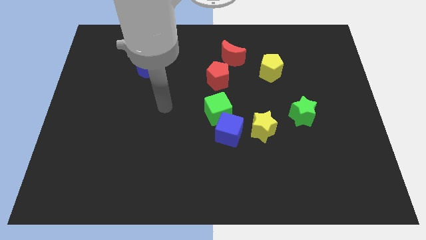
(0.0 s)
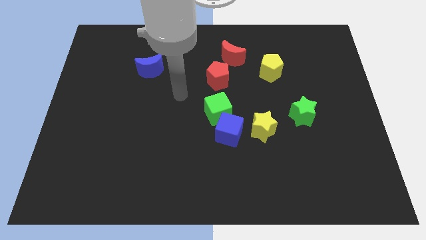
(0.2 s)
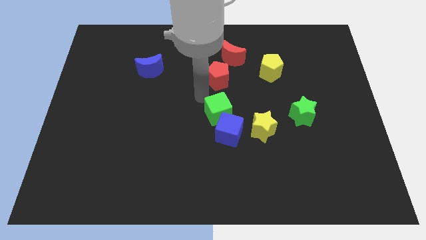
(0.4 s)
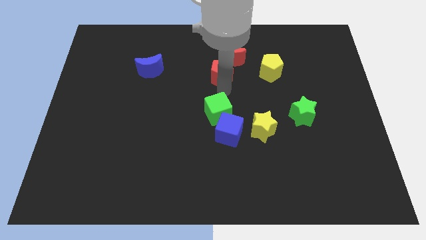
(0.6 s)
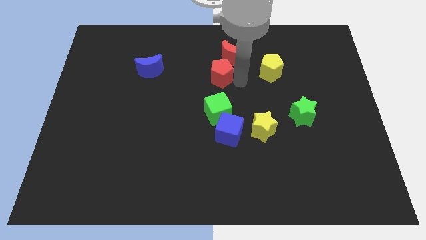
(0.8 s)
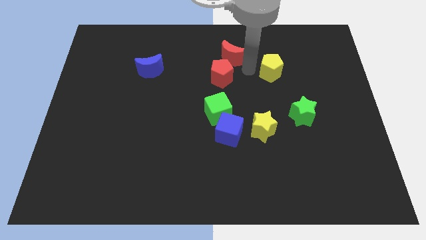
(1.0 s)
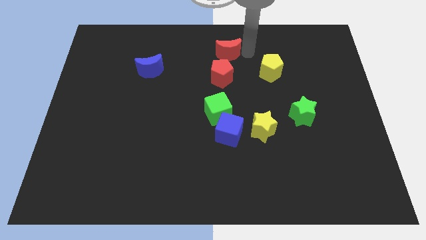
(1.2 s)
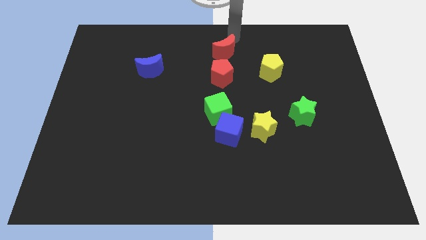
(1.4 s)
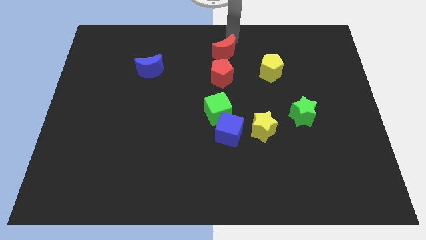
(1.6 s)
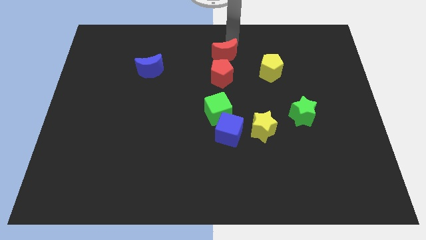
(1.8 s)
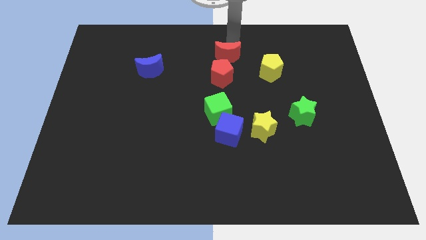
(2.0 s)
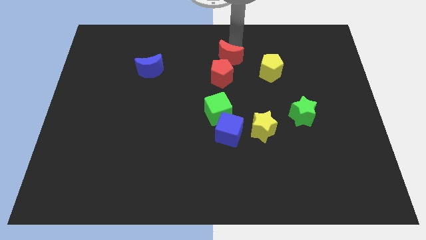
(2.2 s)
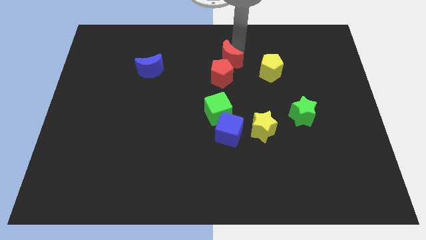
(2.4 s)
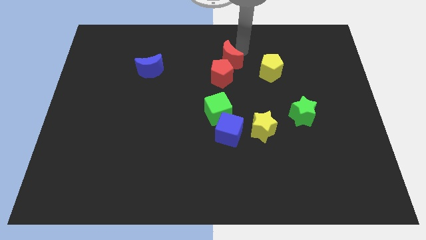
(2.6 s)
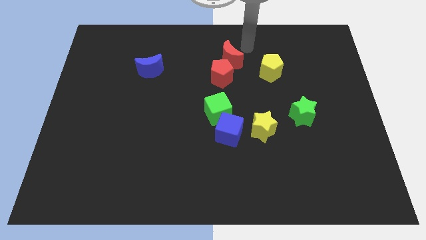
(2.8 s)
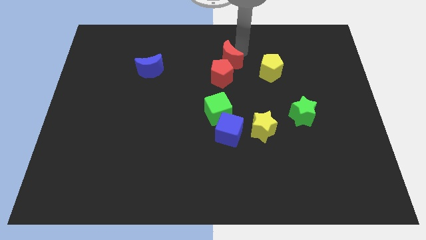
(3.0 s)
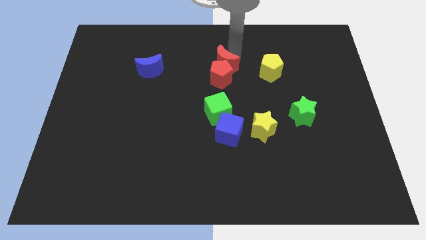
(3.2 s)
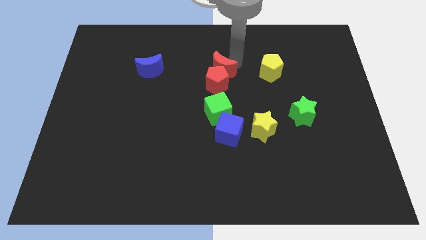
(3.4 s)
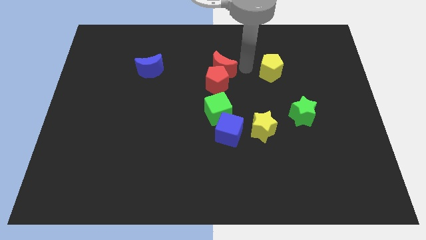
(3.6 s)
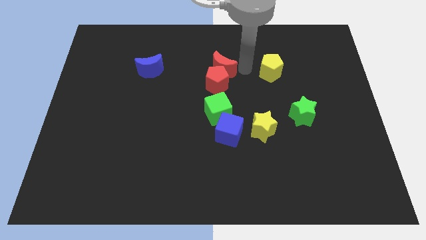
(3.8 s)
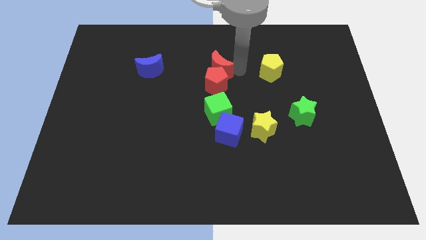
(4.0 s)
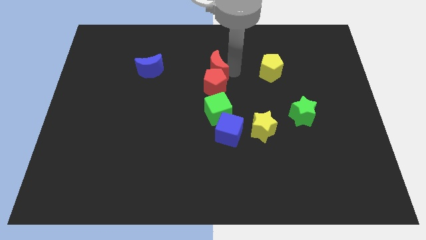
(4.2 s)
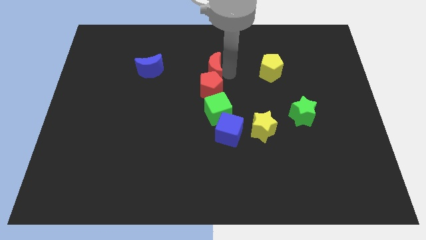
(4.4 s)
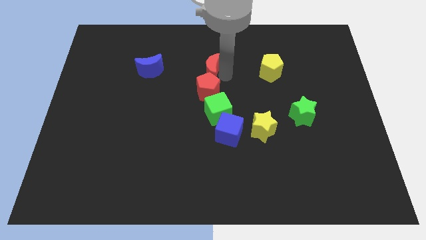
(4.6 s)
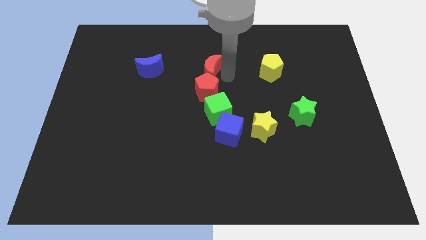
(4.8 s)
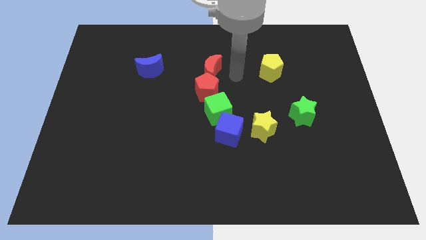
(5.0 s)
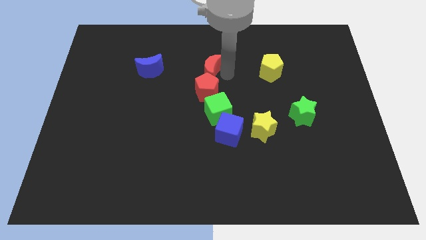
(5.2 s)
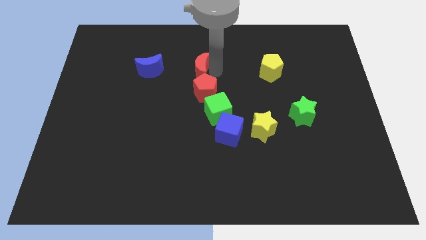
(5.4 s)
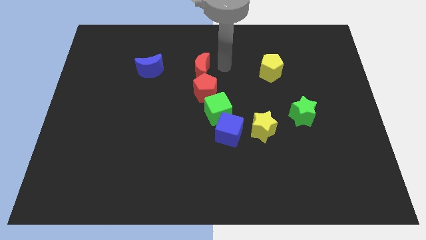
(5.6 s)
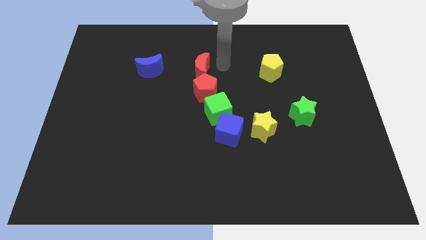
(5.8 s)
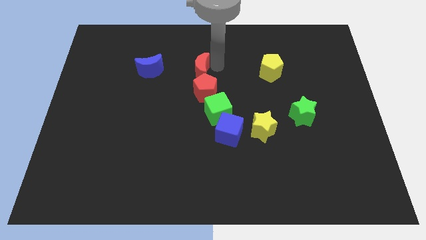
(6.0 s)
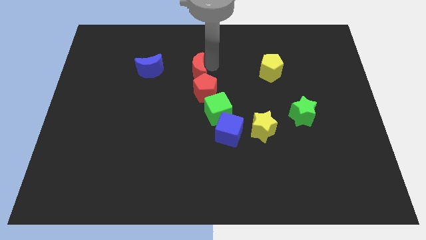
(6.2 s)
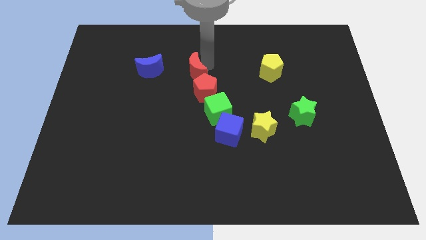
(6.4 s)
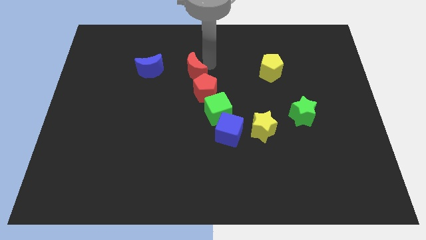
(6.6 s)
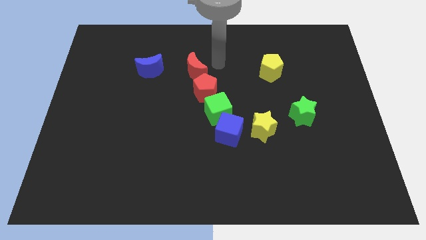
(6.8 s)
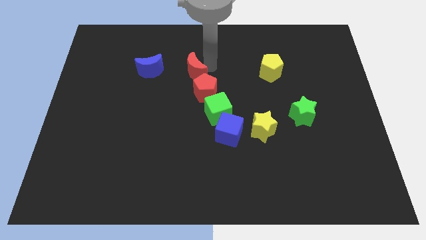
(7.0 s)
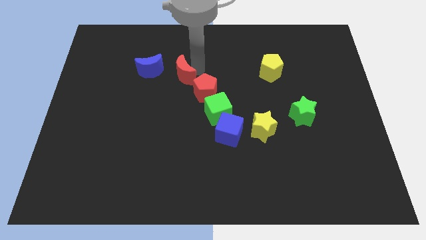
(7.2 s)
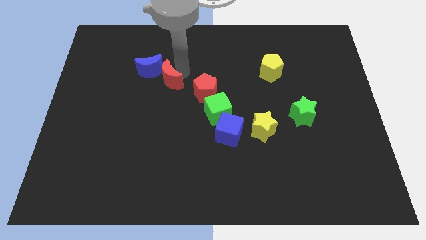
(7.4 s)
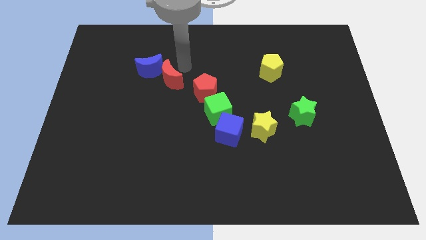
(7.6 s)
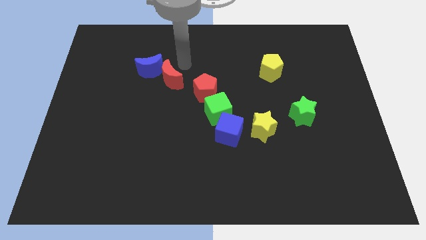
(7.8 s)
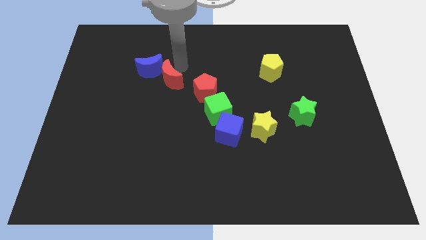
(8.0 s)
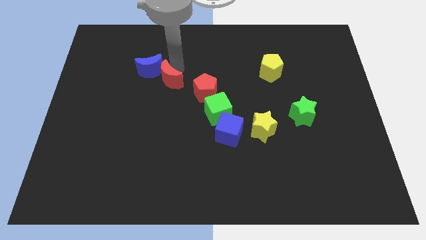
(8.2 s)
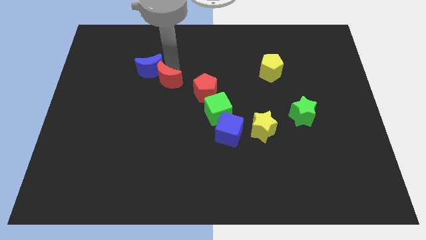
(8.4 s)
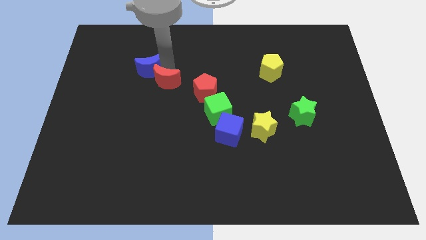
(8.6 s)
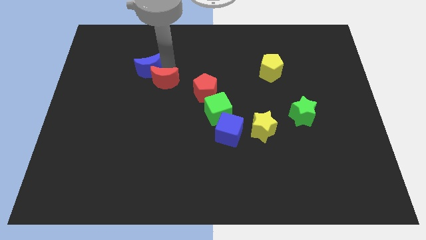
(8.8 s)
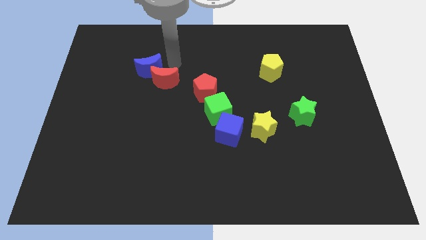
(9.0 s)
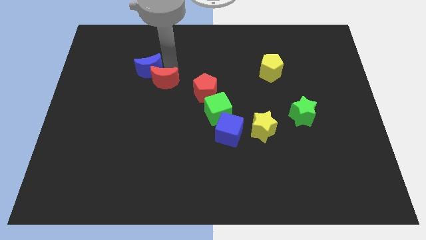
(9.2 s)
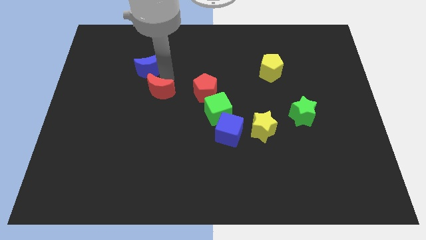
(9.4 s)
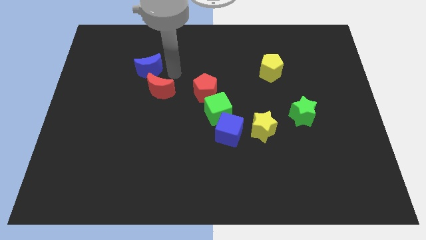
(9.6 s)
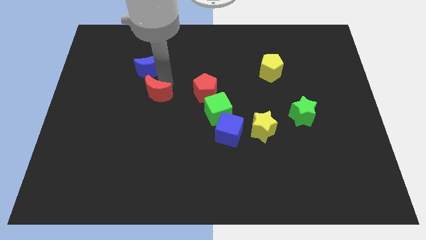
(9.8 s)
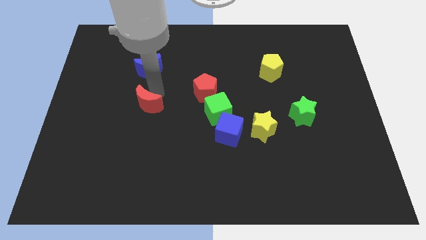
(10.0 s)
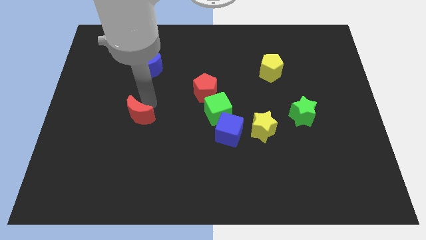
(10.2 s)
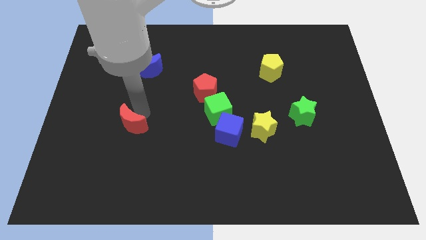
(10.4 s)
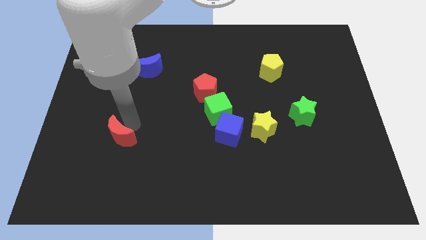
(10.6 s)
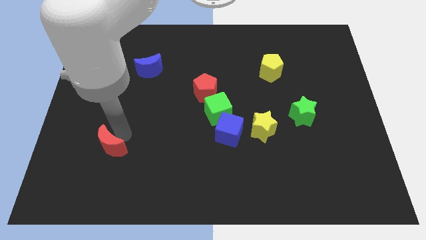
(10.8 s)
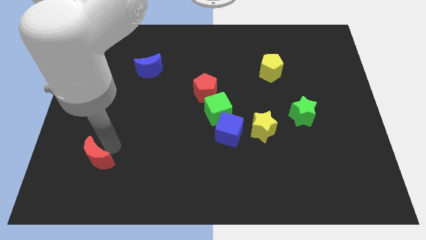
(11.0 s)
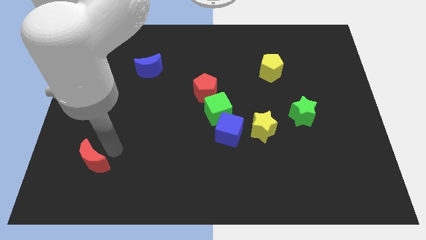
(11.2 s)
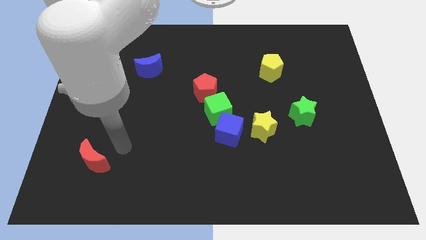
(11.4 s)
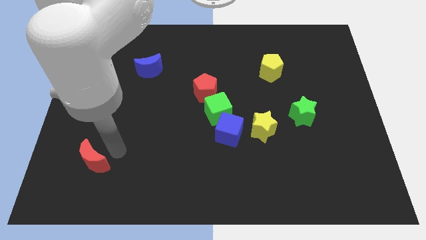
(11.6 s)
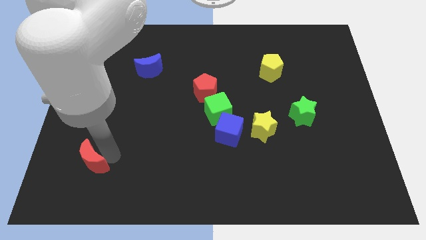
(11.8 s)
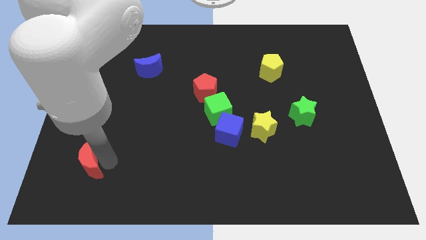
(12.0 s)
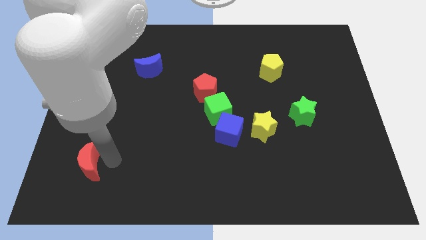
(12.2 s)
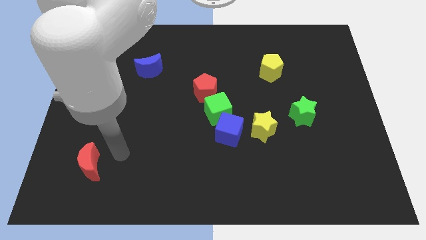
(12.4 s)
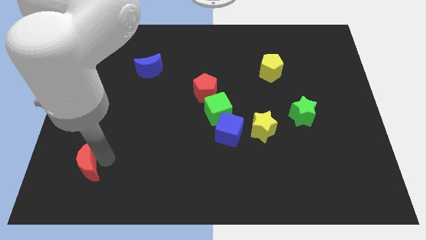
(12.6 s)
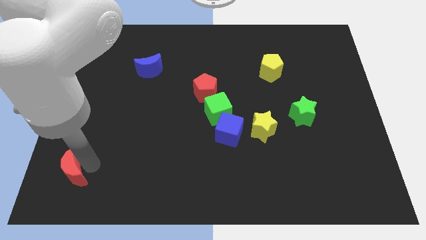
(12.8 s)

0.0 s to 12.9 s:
push the red moon to the bottom left of the board

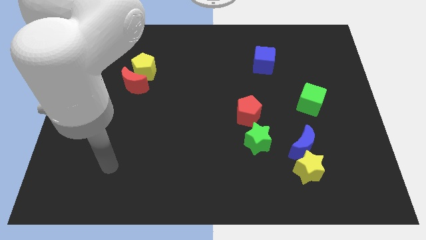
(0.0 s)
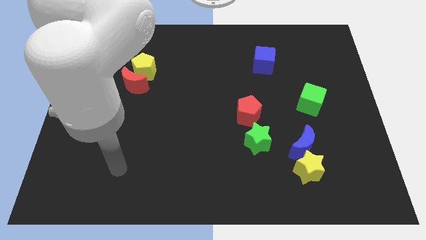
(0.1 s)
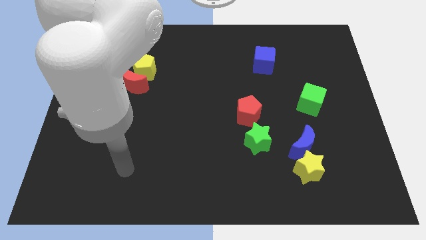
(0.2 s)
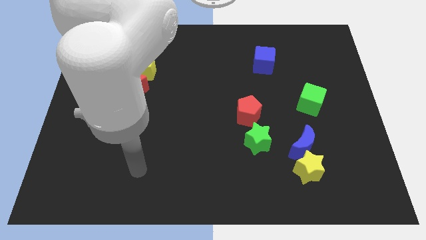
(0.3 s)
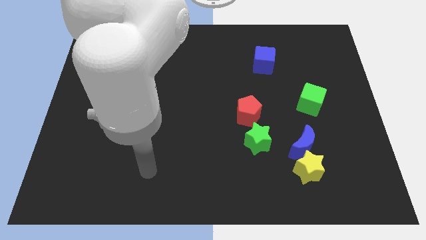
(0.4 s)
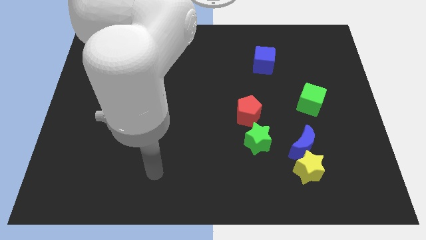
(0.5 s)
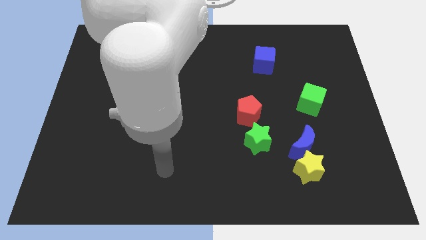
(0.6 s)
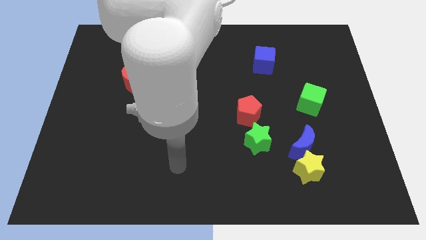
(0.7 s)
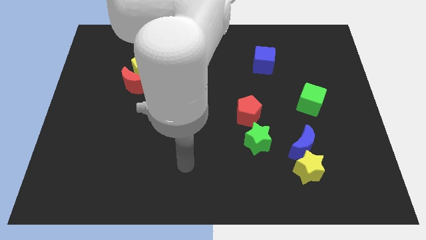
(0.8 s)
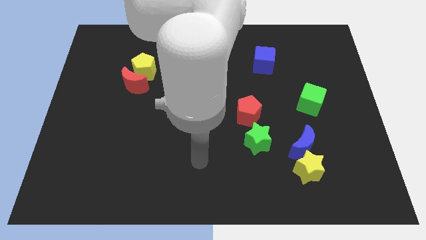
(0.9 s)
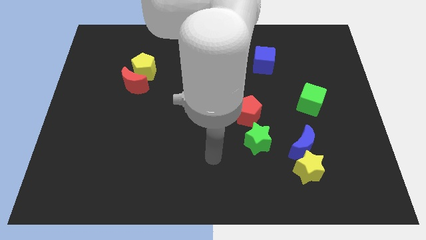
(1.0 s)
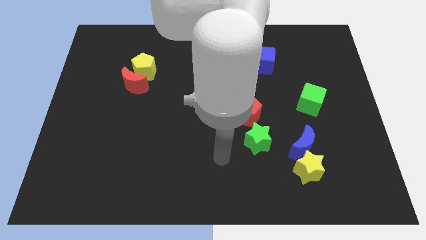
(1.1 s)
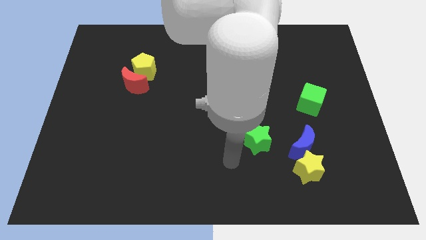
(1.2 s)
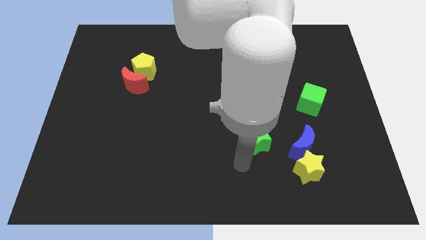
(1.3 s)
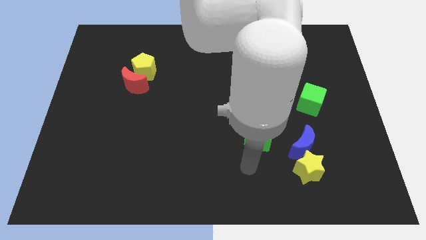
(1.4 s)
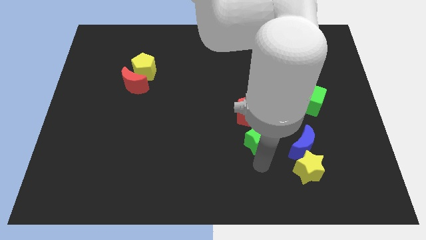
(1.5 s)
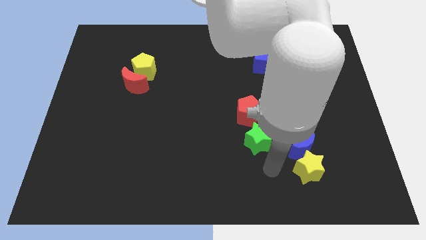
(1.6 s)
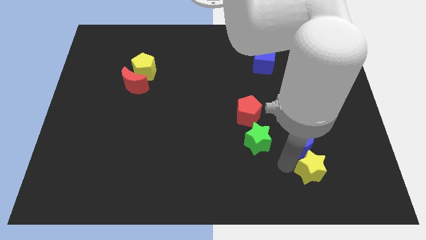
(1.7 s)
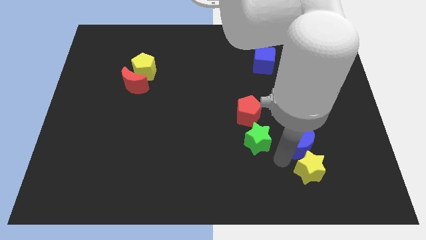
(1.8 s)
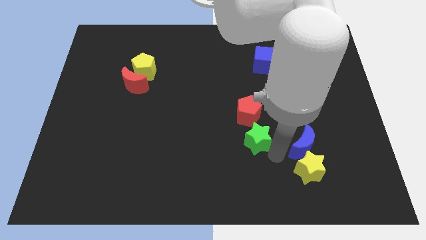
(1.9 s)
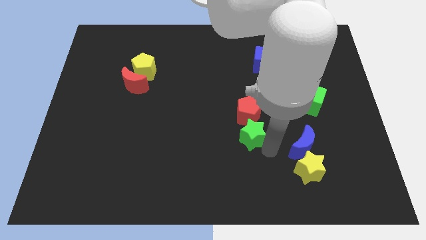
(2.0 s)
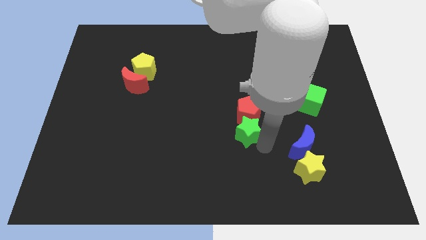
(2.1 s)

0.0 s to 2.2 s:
put the green star to the center
